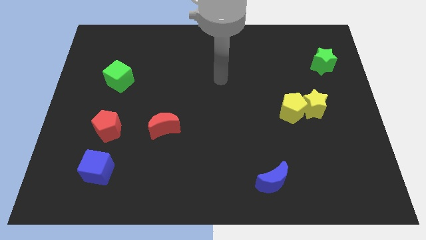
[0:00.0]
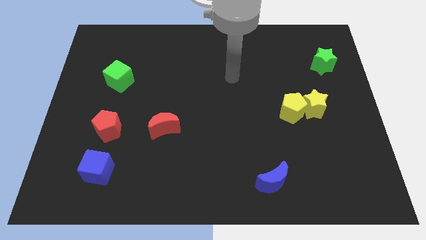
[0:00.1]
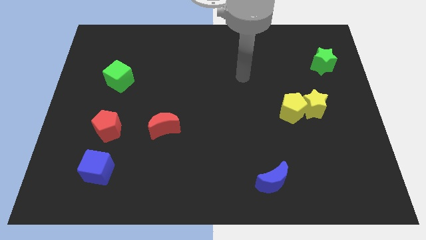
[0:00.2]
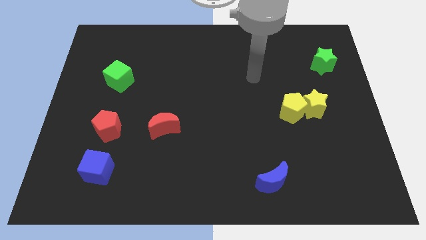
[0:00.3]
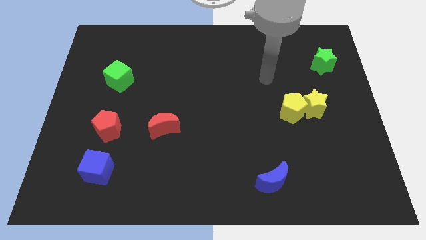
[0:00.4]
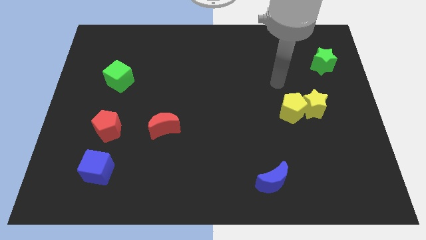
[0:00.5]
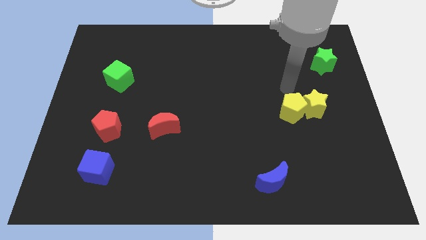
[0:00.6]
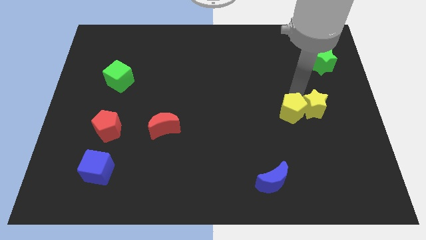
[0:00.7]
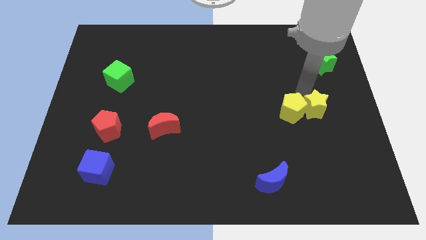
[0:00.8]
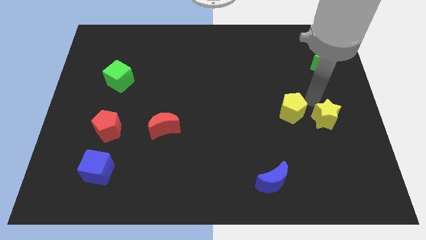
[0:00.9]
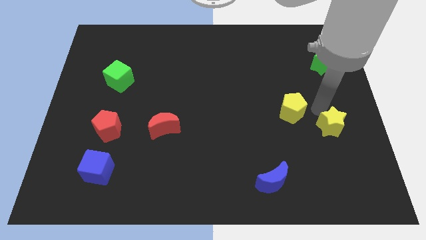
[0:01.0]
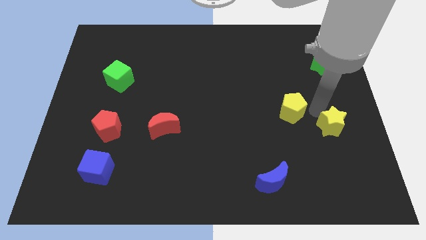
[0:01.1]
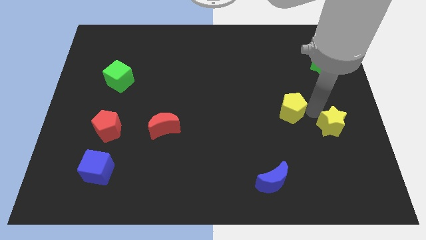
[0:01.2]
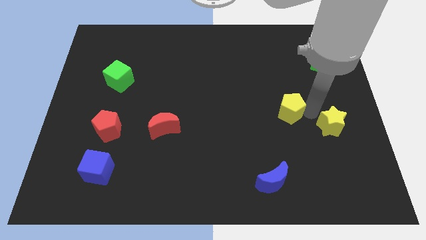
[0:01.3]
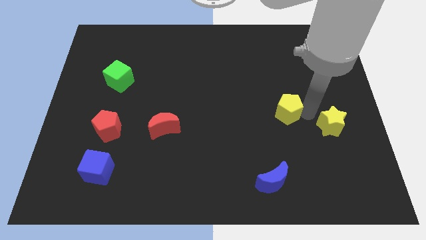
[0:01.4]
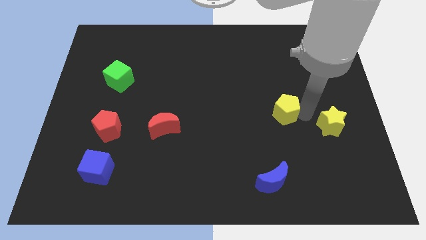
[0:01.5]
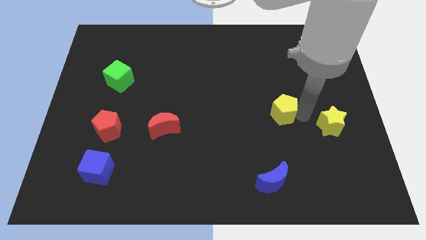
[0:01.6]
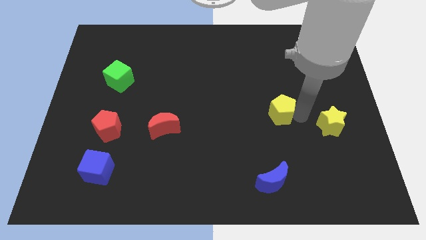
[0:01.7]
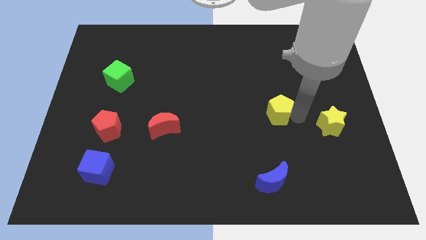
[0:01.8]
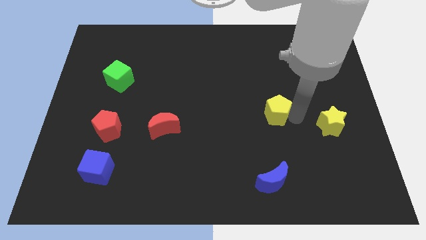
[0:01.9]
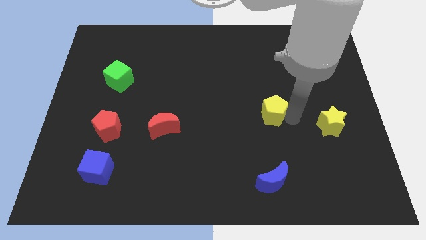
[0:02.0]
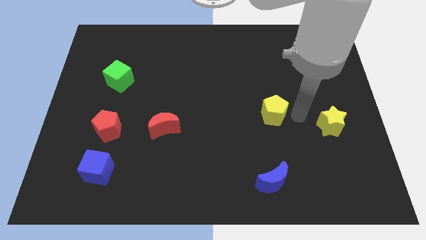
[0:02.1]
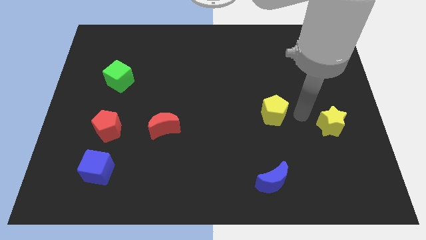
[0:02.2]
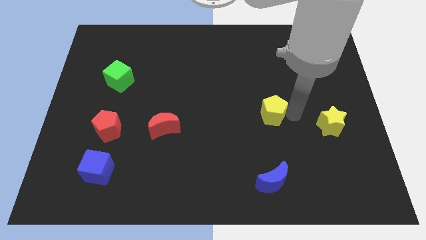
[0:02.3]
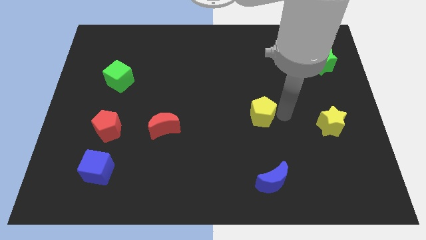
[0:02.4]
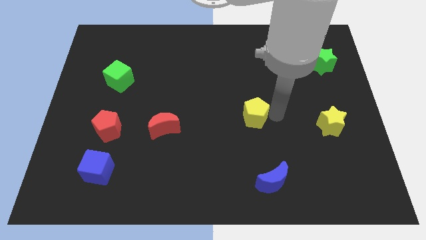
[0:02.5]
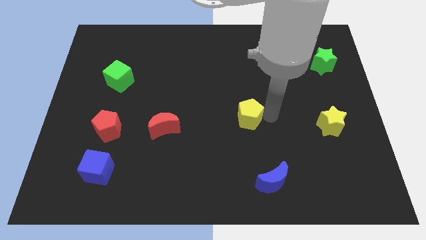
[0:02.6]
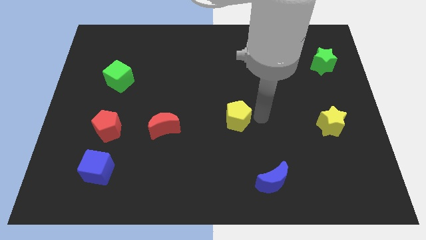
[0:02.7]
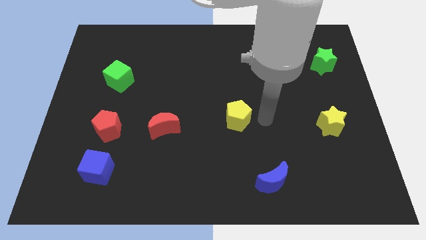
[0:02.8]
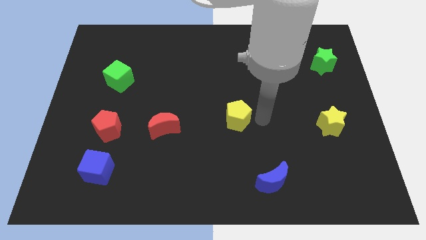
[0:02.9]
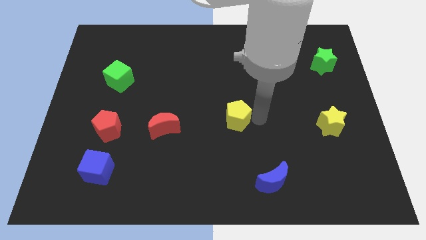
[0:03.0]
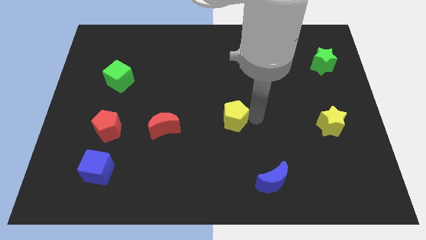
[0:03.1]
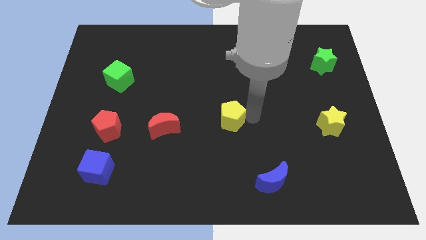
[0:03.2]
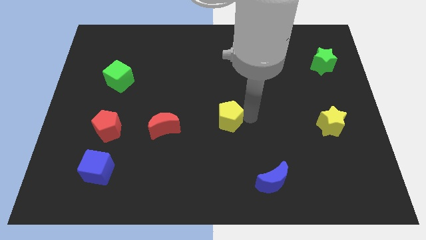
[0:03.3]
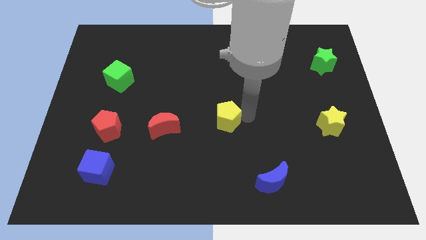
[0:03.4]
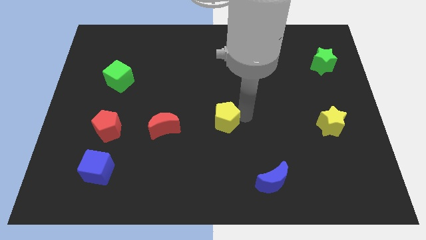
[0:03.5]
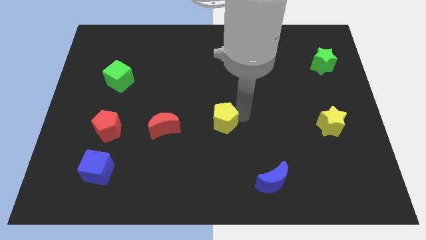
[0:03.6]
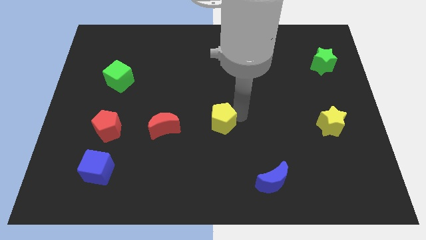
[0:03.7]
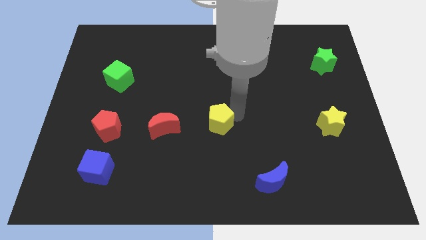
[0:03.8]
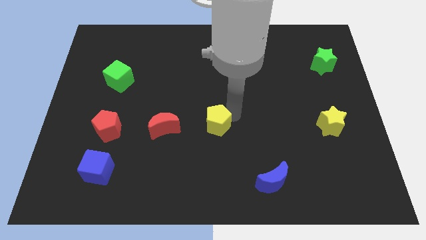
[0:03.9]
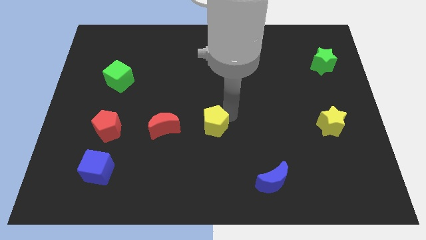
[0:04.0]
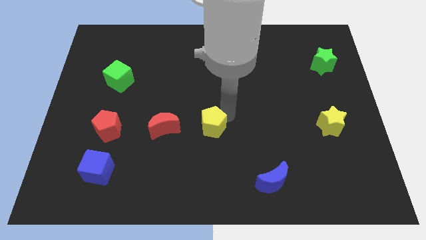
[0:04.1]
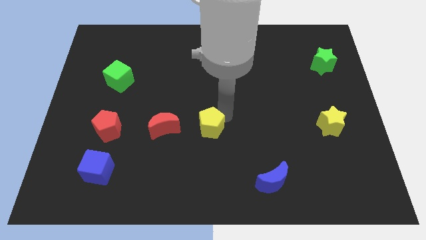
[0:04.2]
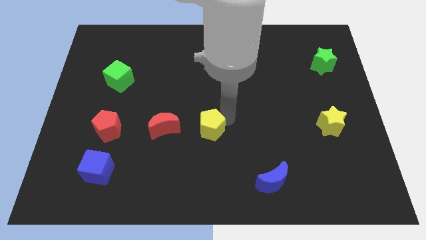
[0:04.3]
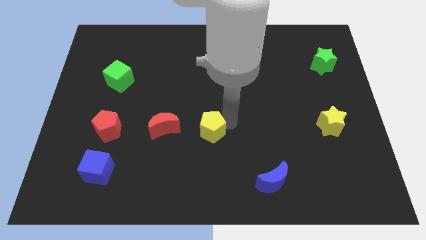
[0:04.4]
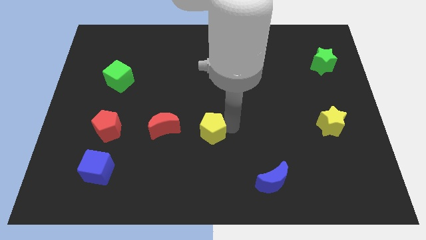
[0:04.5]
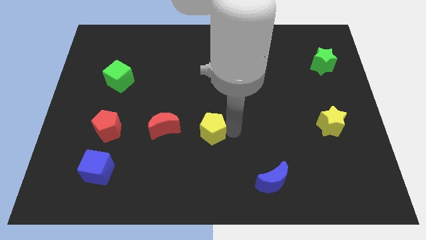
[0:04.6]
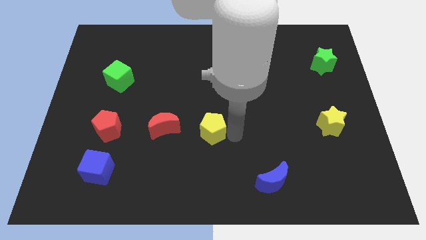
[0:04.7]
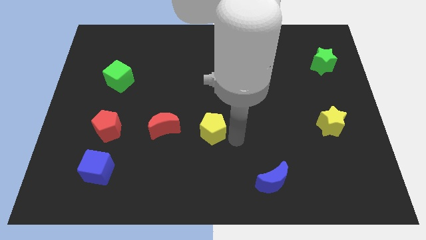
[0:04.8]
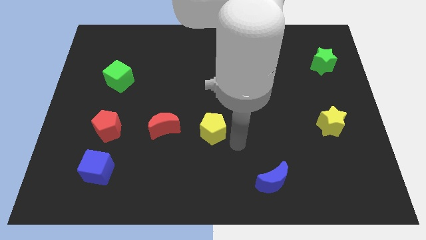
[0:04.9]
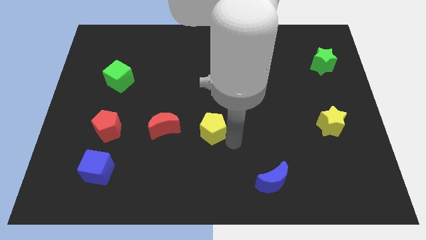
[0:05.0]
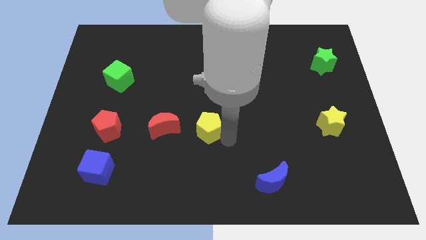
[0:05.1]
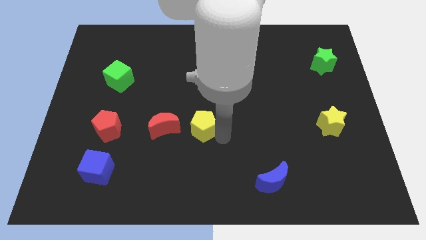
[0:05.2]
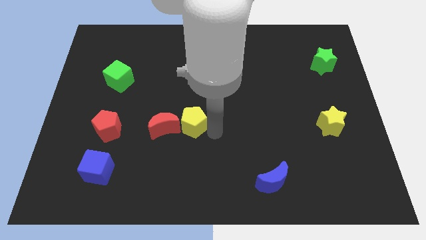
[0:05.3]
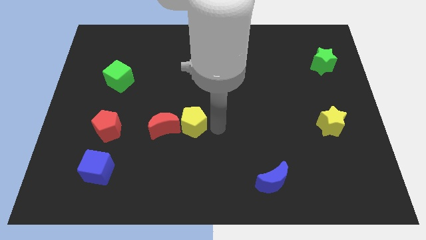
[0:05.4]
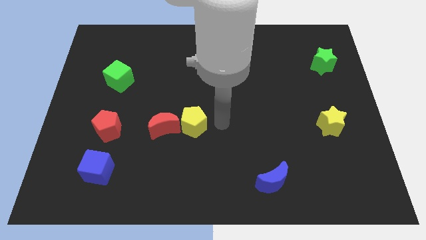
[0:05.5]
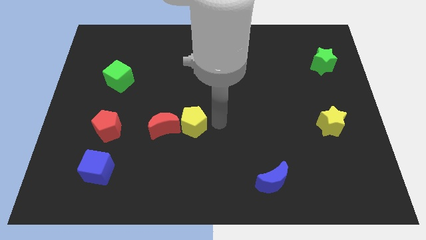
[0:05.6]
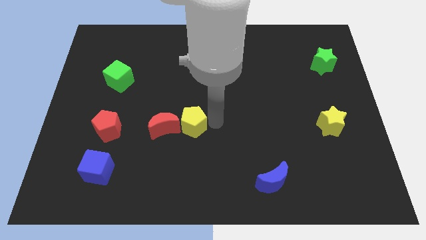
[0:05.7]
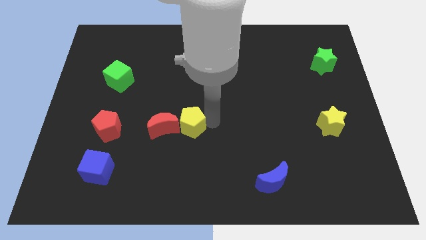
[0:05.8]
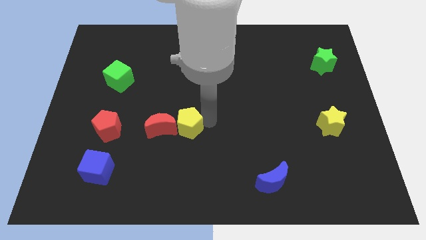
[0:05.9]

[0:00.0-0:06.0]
put the yellow pentagon towards the red moon

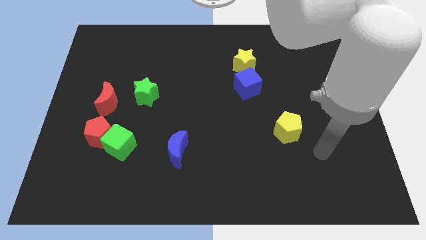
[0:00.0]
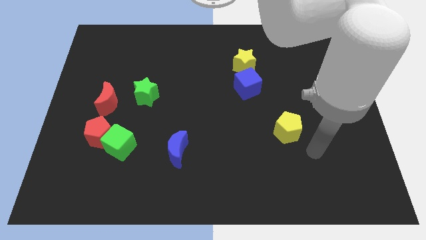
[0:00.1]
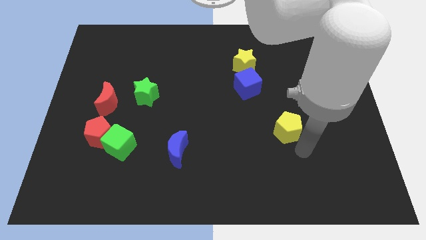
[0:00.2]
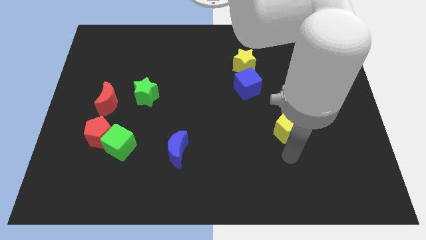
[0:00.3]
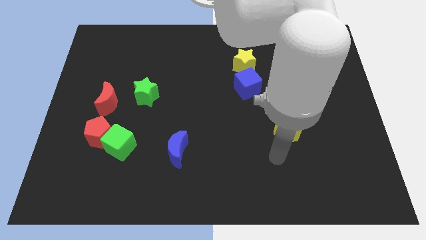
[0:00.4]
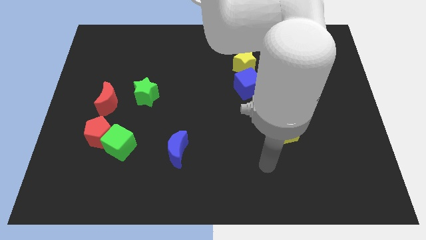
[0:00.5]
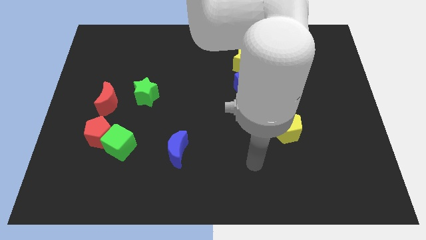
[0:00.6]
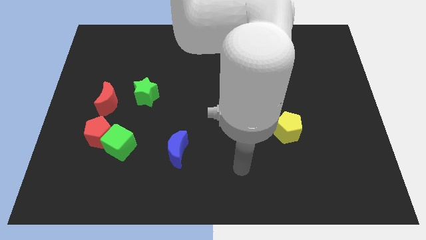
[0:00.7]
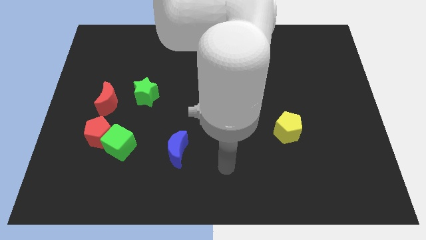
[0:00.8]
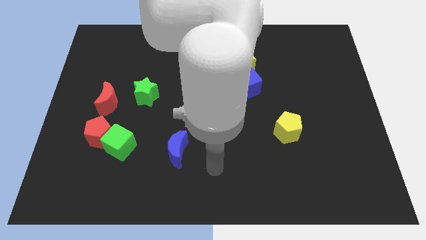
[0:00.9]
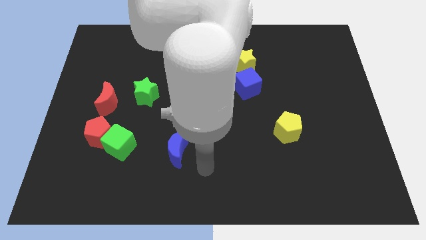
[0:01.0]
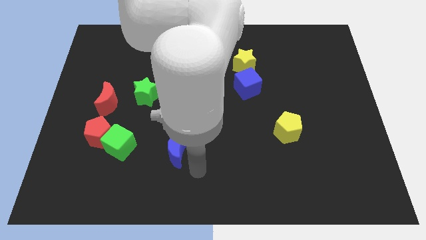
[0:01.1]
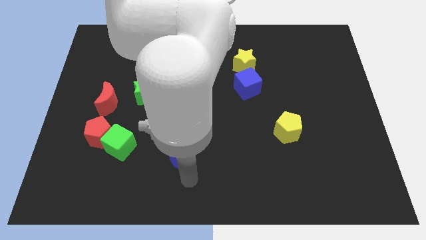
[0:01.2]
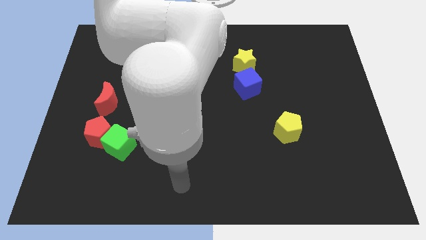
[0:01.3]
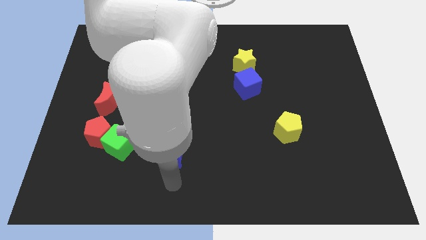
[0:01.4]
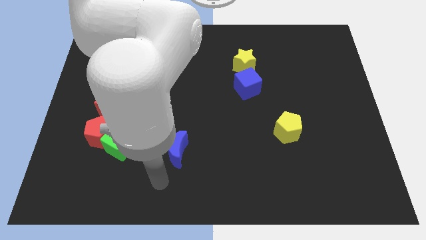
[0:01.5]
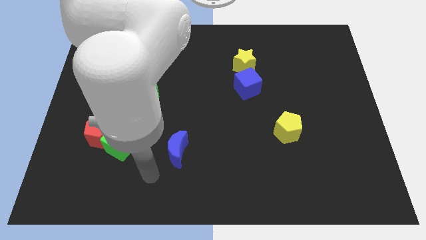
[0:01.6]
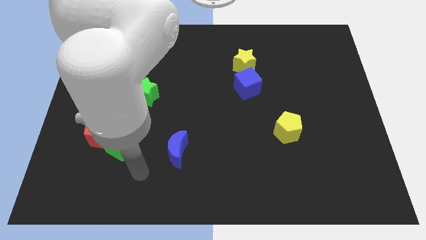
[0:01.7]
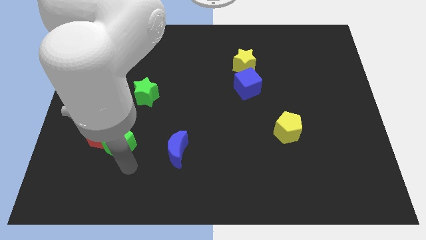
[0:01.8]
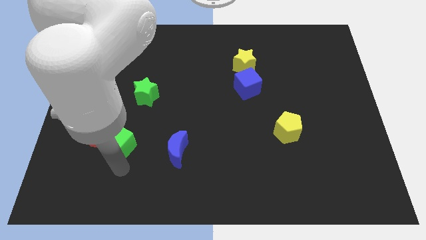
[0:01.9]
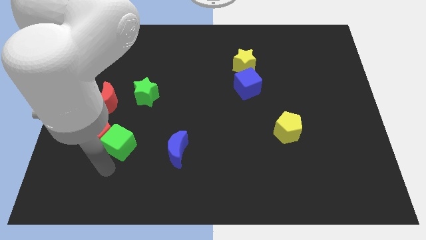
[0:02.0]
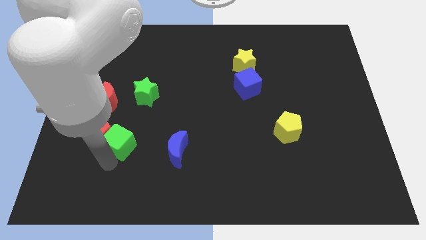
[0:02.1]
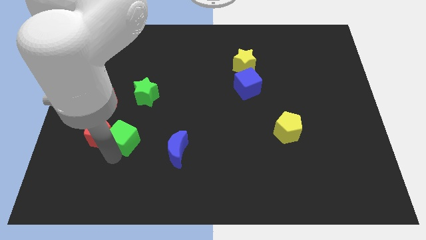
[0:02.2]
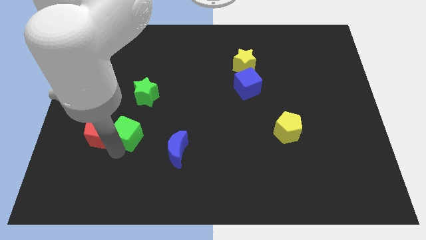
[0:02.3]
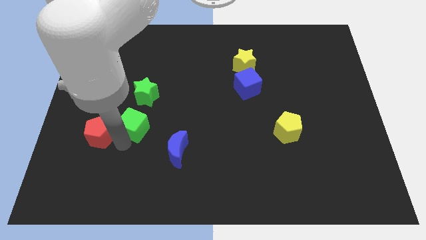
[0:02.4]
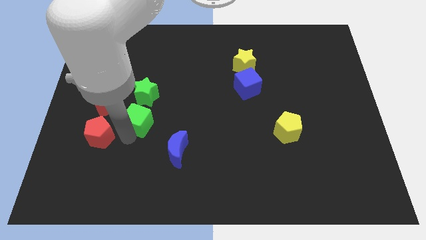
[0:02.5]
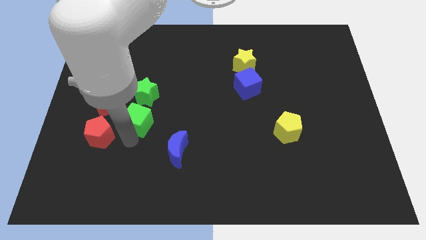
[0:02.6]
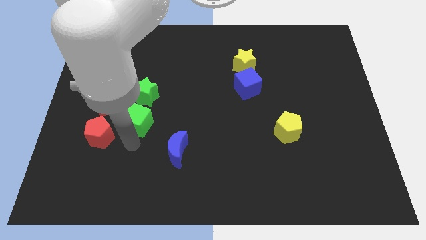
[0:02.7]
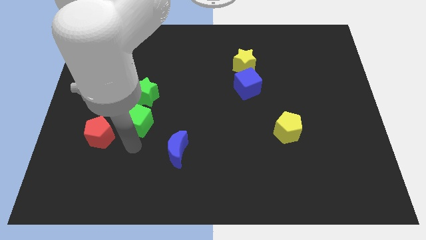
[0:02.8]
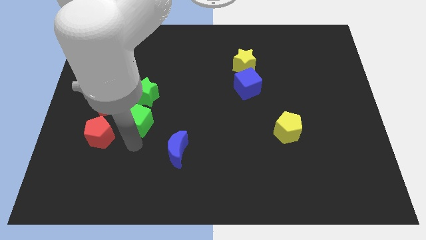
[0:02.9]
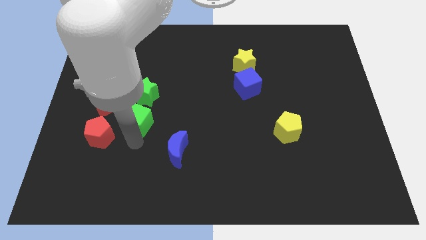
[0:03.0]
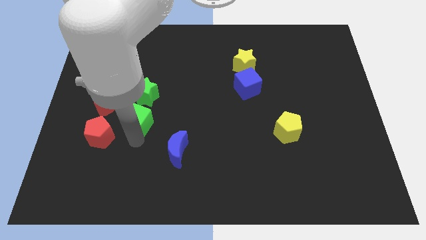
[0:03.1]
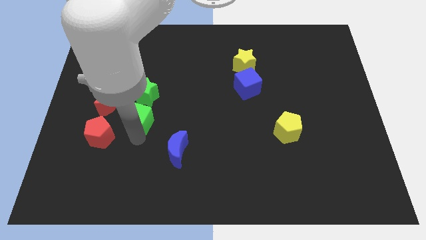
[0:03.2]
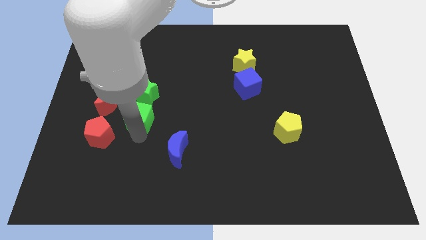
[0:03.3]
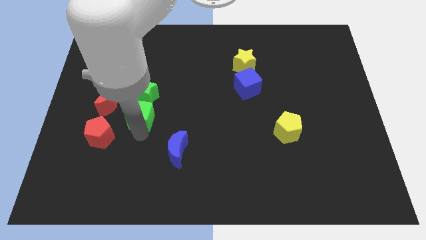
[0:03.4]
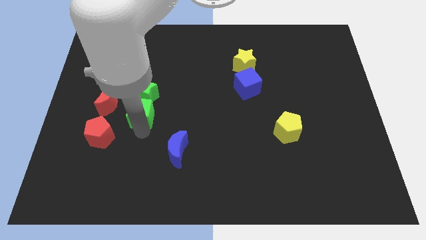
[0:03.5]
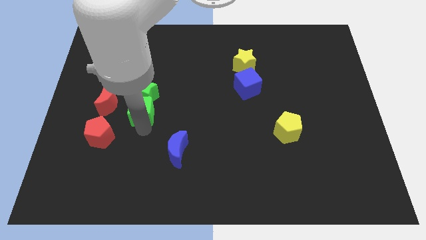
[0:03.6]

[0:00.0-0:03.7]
push the green cube to the green star
